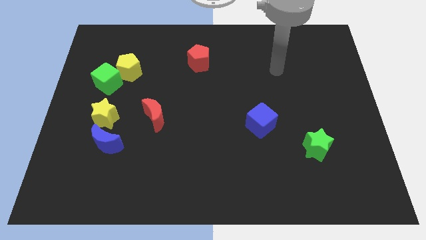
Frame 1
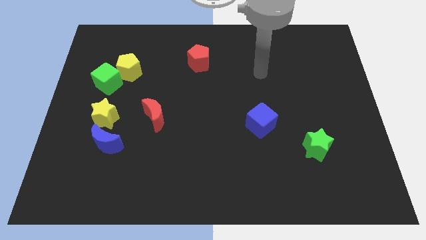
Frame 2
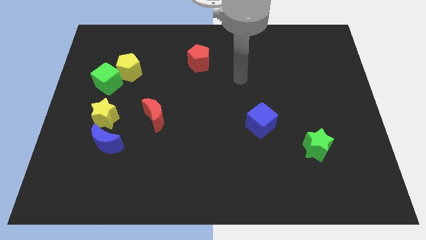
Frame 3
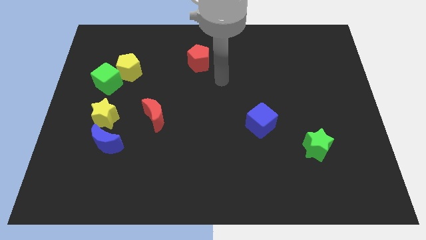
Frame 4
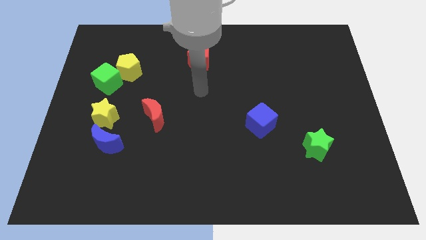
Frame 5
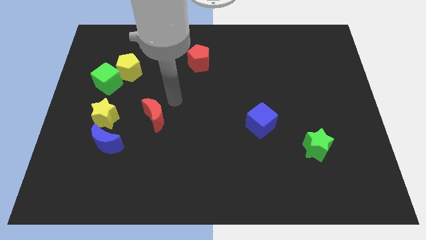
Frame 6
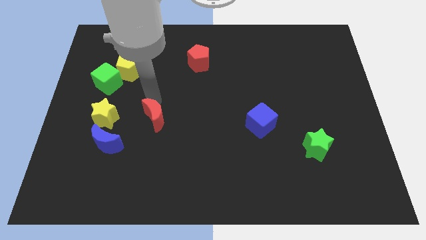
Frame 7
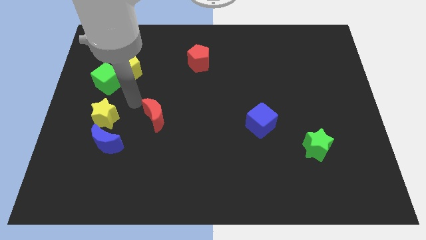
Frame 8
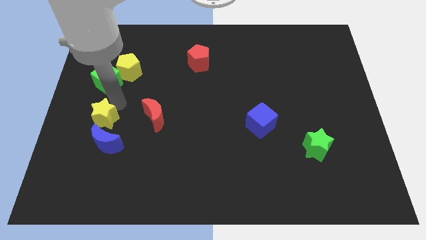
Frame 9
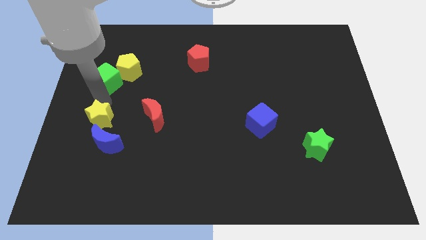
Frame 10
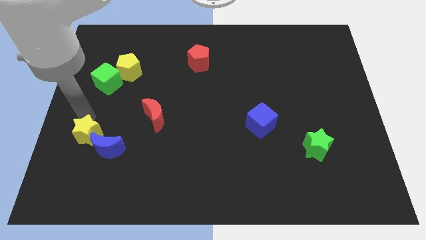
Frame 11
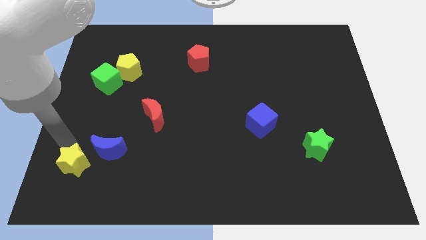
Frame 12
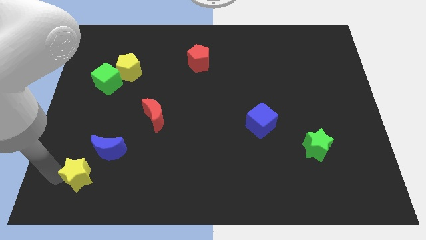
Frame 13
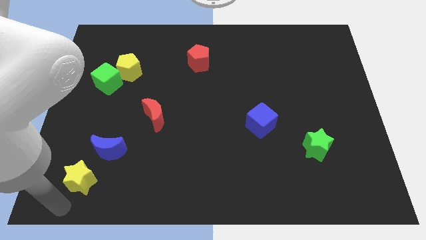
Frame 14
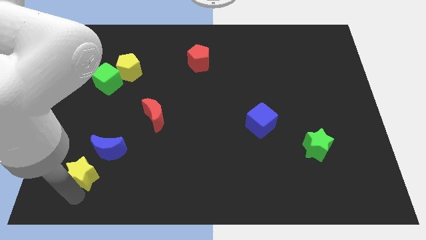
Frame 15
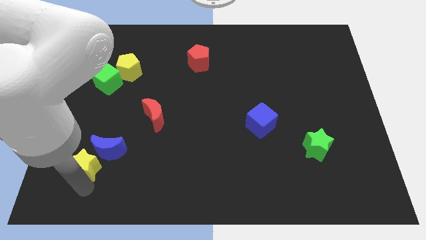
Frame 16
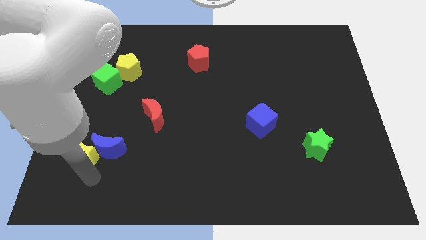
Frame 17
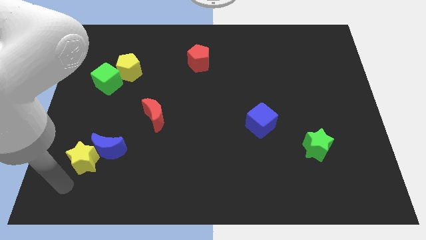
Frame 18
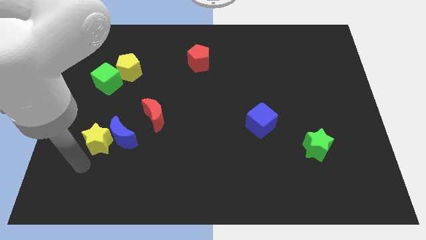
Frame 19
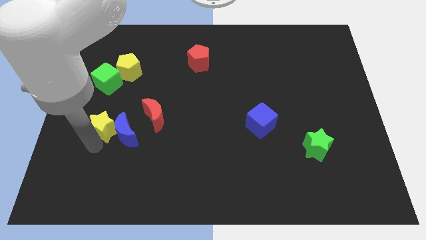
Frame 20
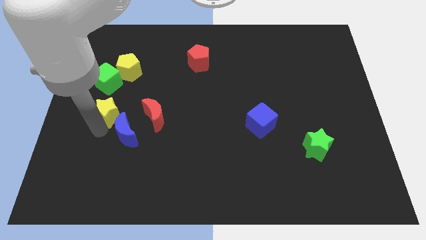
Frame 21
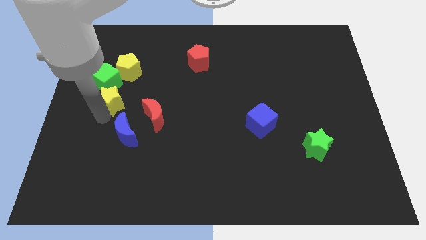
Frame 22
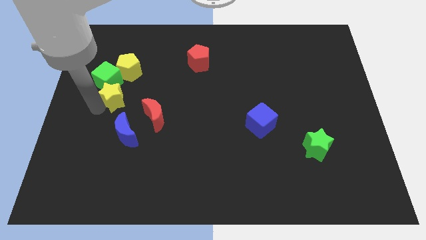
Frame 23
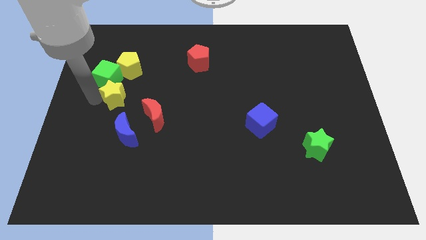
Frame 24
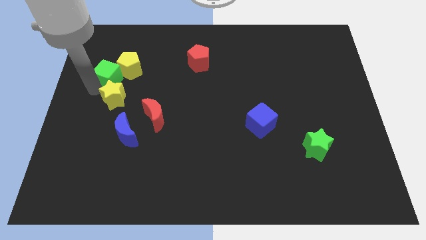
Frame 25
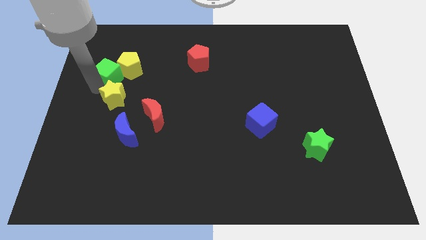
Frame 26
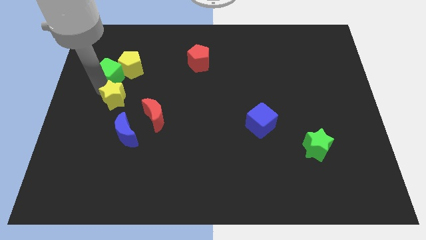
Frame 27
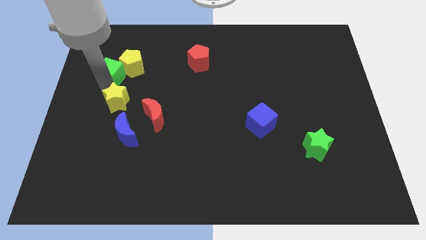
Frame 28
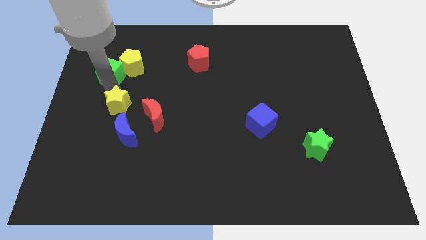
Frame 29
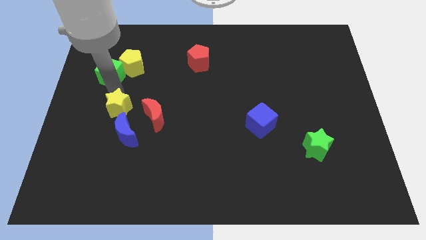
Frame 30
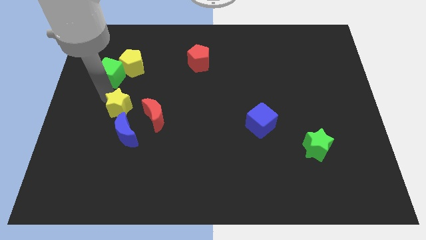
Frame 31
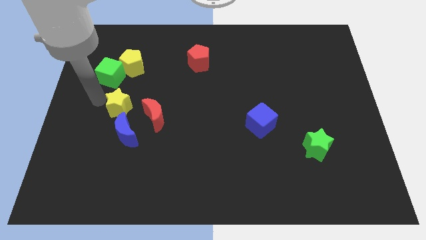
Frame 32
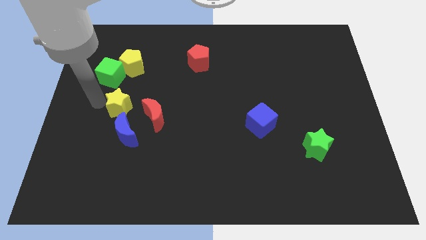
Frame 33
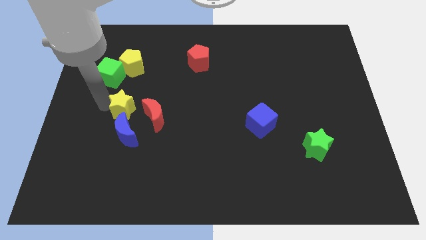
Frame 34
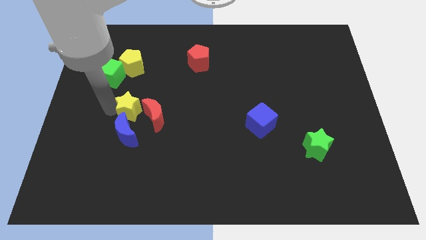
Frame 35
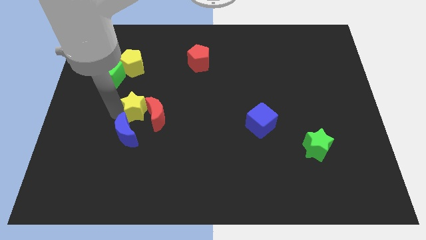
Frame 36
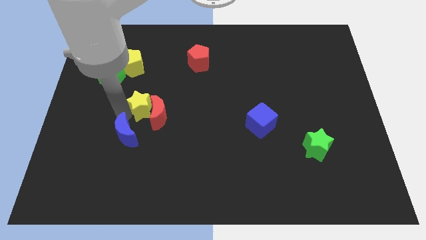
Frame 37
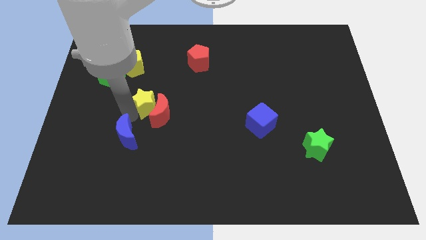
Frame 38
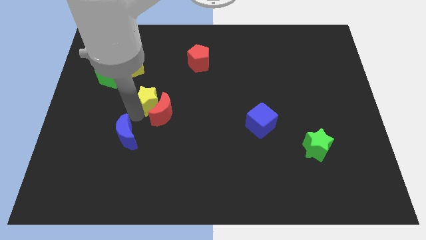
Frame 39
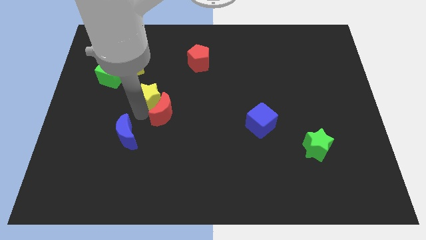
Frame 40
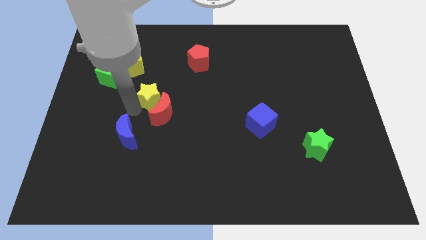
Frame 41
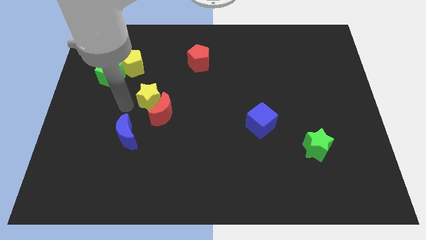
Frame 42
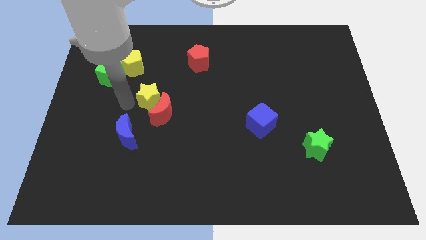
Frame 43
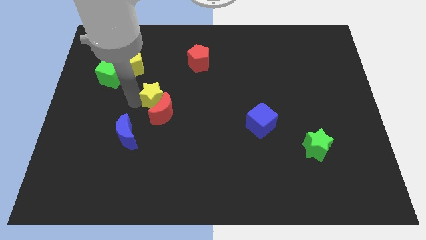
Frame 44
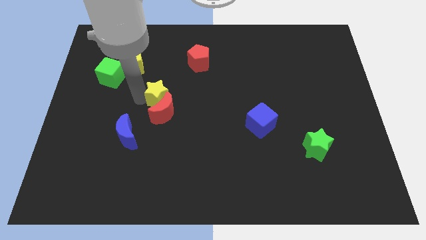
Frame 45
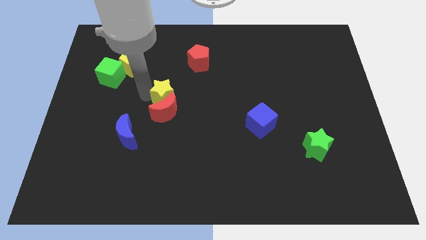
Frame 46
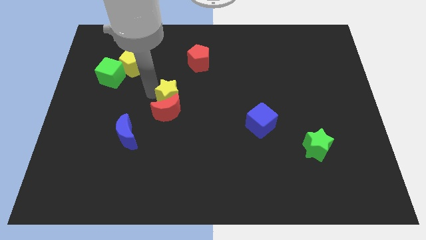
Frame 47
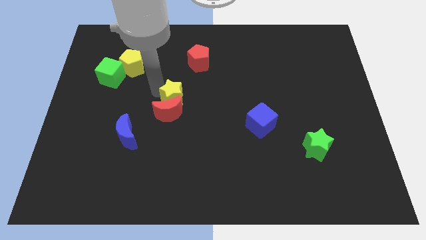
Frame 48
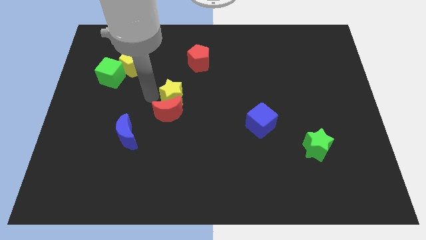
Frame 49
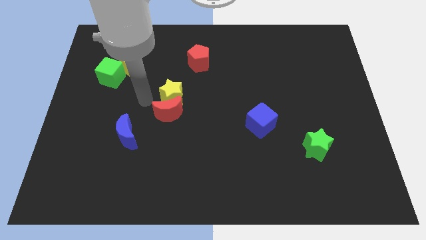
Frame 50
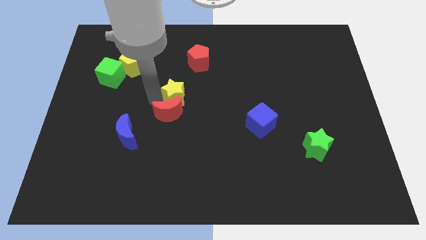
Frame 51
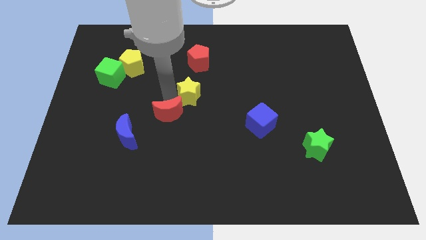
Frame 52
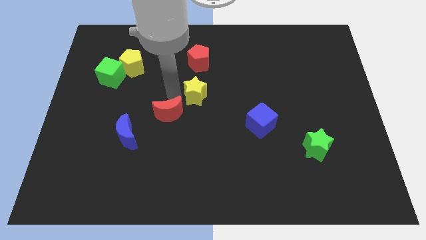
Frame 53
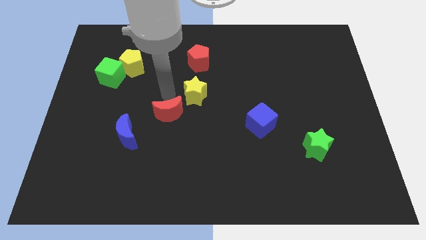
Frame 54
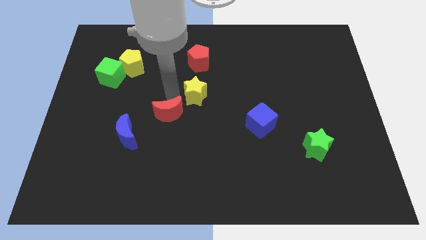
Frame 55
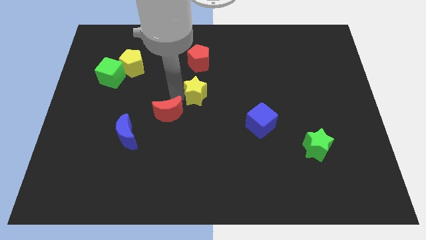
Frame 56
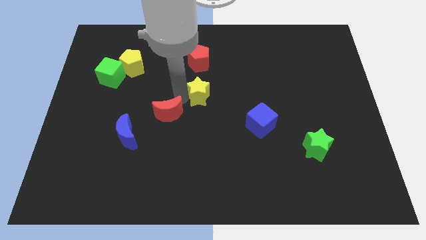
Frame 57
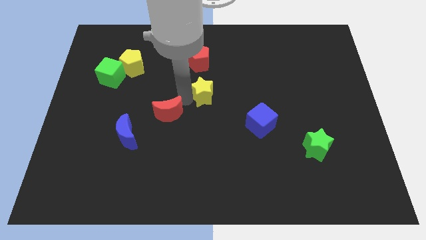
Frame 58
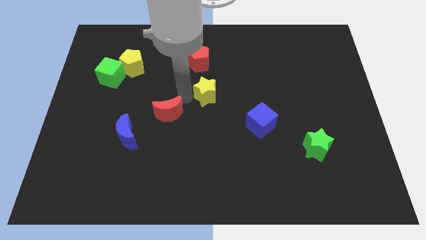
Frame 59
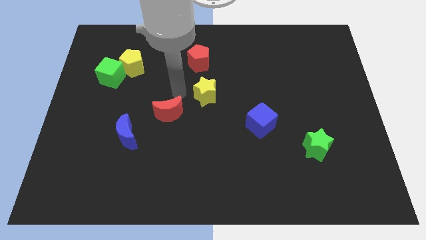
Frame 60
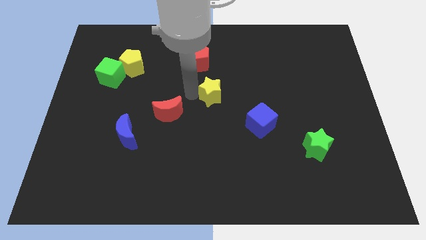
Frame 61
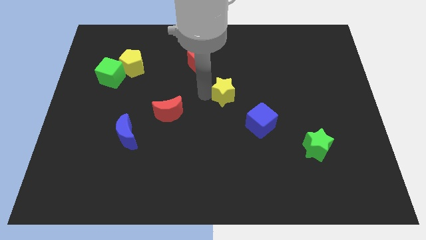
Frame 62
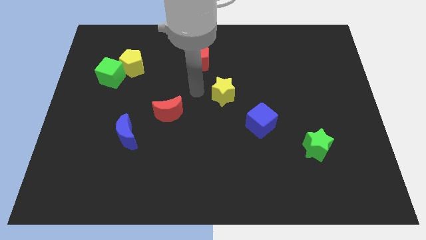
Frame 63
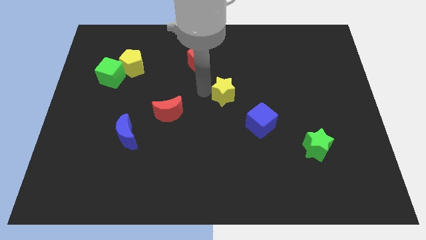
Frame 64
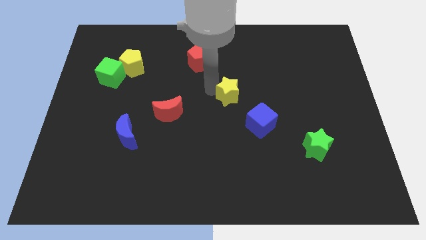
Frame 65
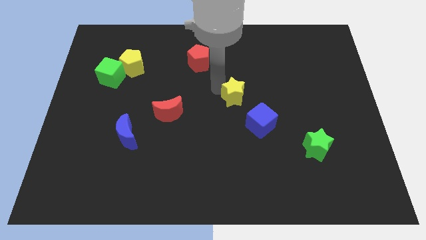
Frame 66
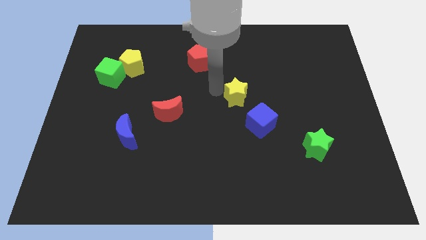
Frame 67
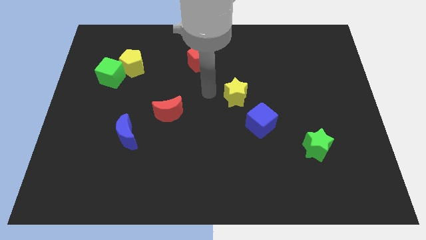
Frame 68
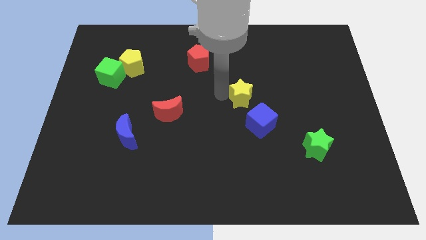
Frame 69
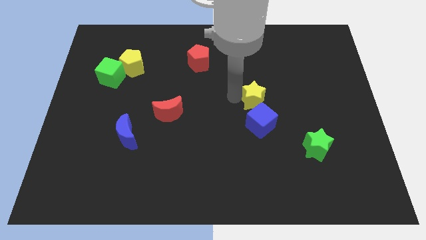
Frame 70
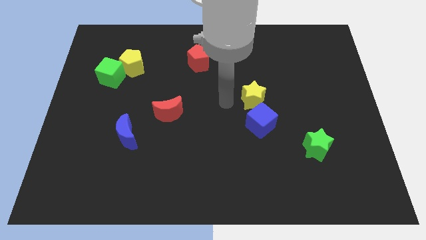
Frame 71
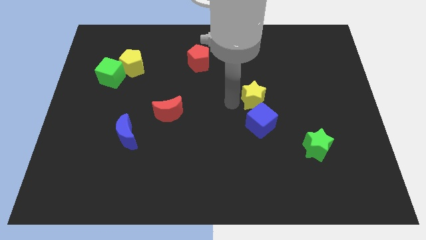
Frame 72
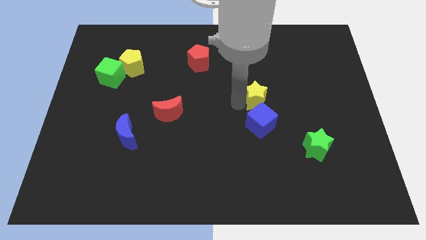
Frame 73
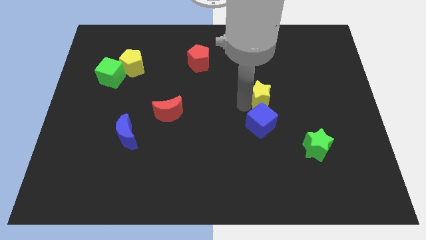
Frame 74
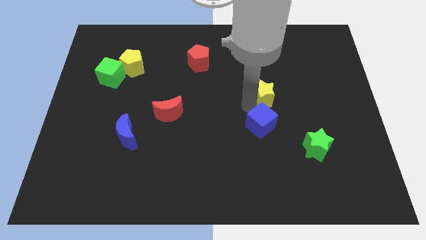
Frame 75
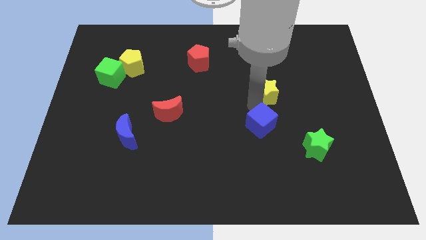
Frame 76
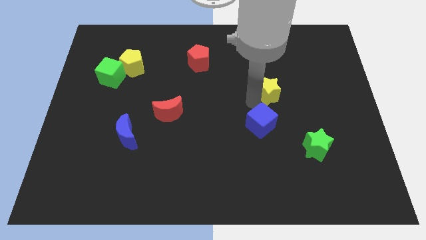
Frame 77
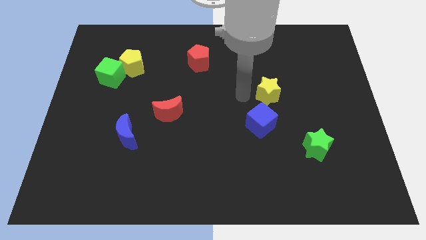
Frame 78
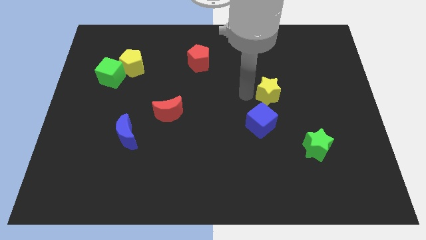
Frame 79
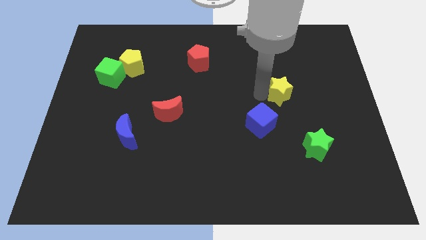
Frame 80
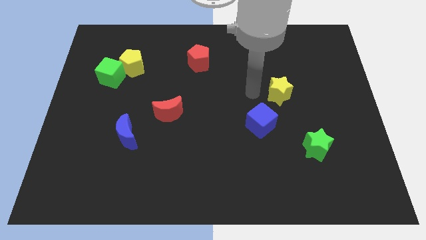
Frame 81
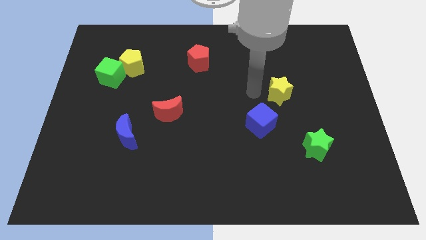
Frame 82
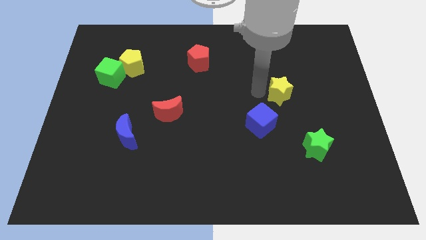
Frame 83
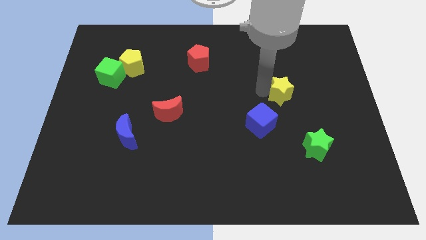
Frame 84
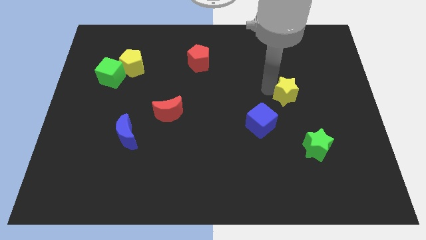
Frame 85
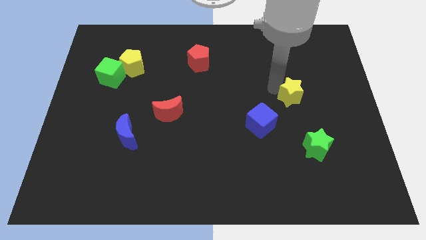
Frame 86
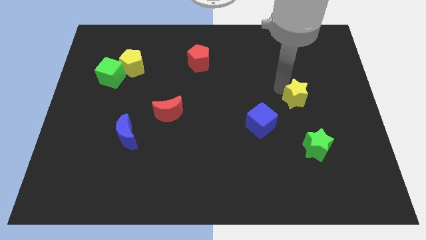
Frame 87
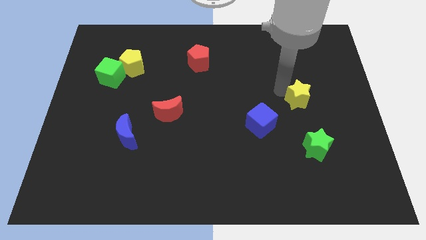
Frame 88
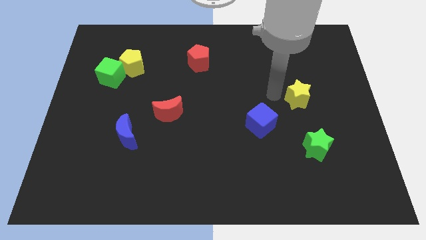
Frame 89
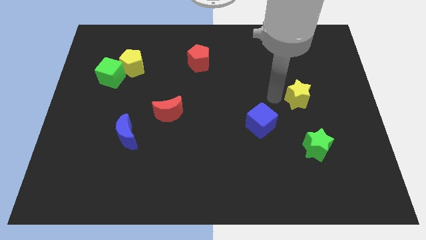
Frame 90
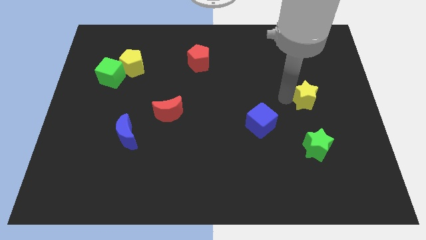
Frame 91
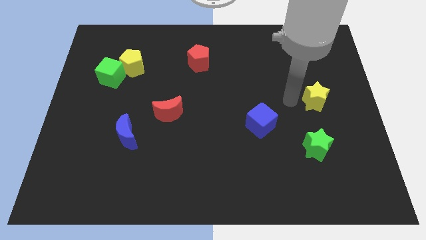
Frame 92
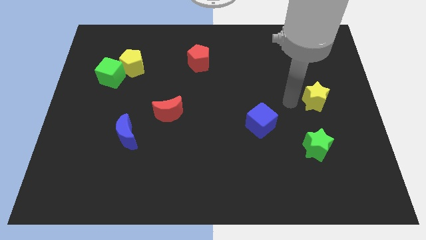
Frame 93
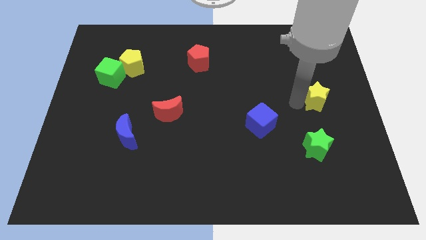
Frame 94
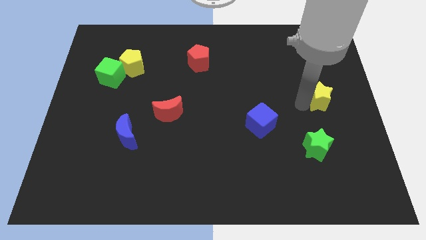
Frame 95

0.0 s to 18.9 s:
slide the yellow star to the right side of the board
